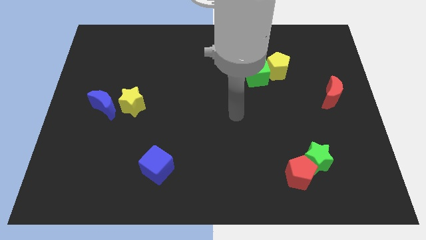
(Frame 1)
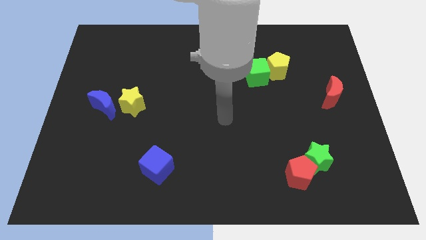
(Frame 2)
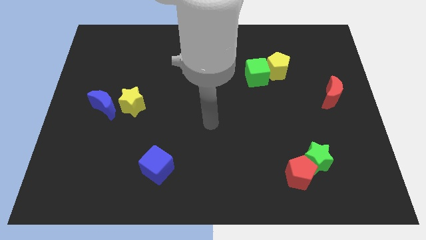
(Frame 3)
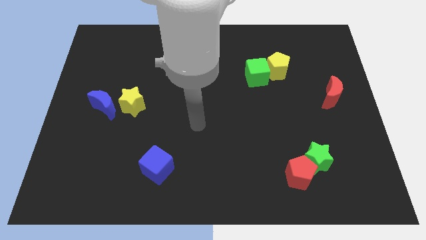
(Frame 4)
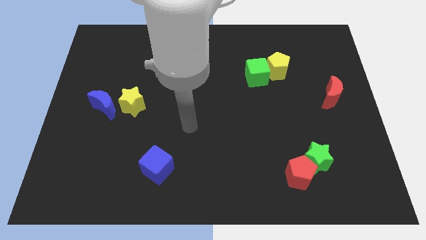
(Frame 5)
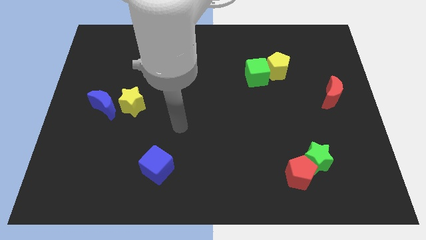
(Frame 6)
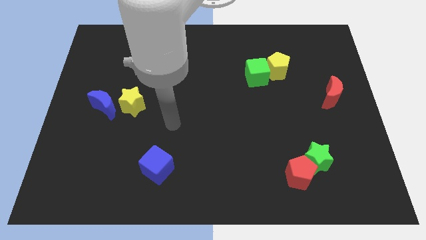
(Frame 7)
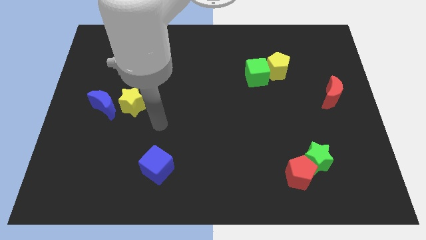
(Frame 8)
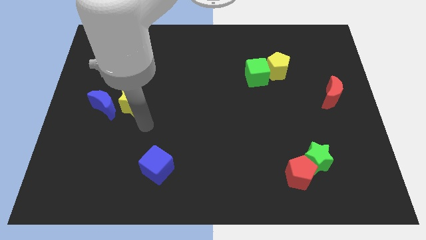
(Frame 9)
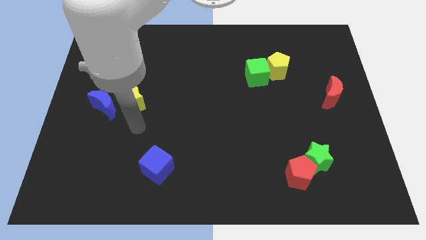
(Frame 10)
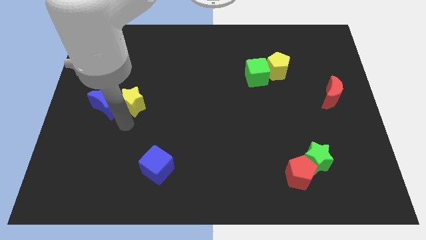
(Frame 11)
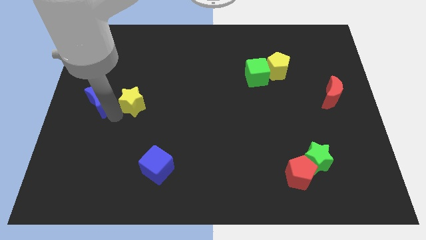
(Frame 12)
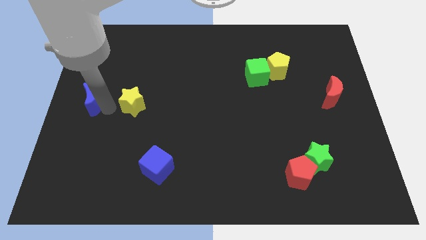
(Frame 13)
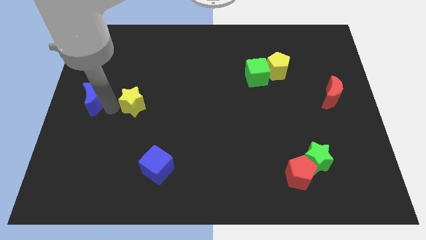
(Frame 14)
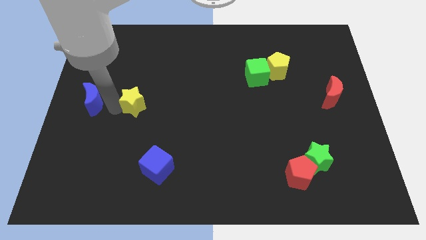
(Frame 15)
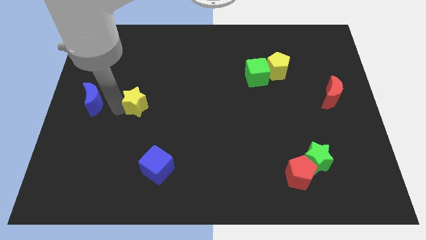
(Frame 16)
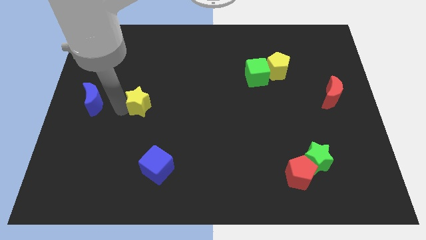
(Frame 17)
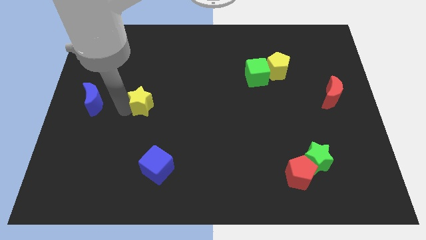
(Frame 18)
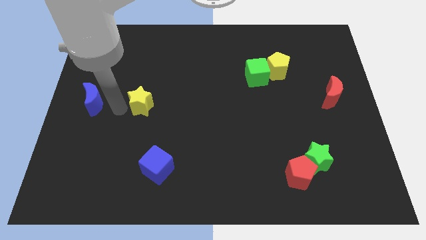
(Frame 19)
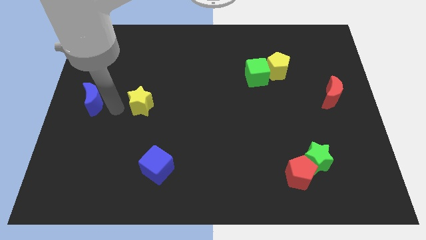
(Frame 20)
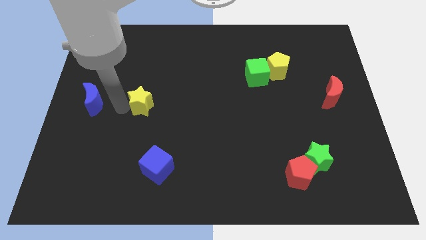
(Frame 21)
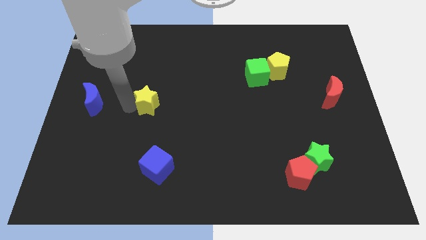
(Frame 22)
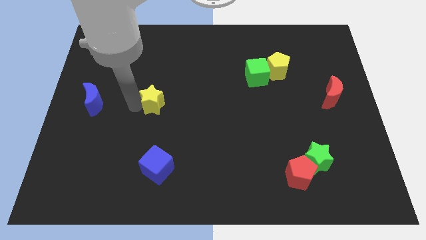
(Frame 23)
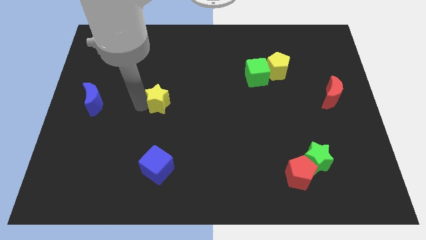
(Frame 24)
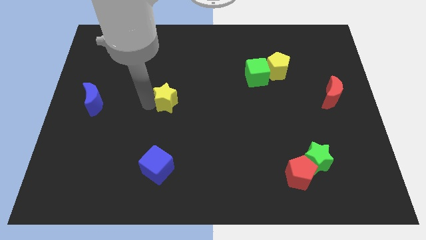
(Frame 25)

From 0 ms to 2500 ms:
move the yellow star right a bit

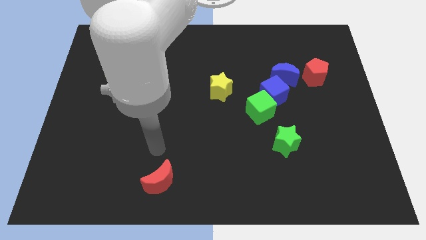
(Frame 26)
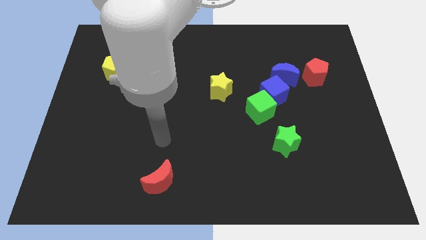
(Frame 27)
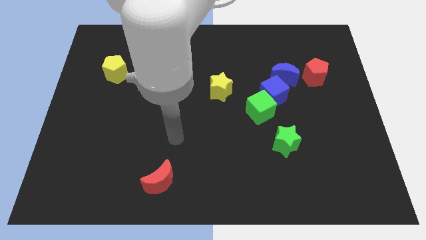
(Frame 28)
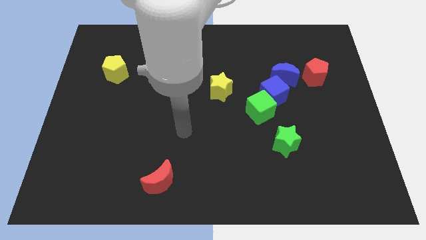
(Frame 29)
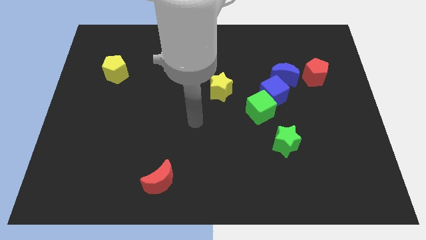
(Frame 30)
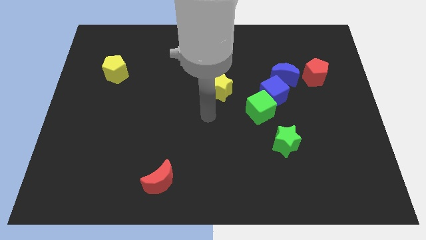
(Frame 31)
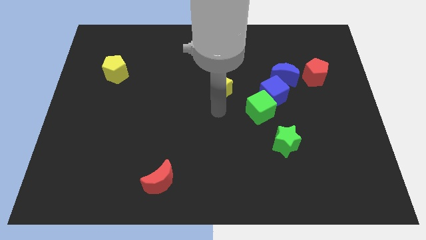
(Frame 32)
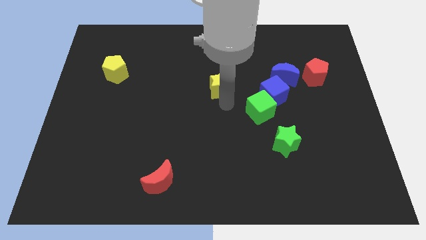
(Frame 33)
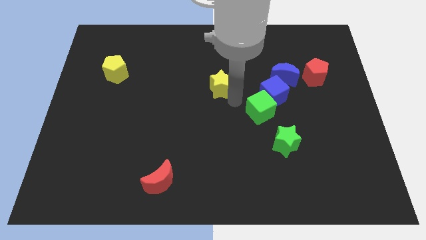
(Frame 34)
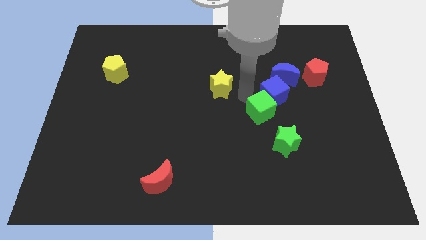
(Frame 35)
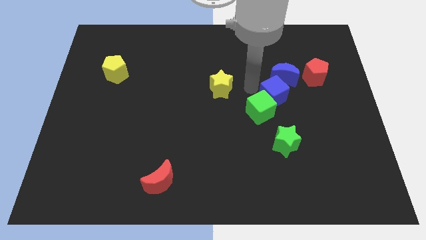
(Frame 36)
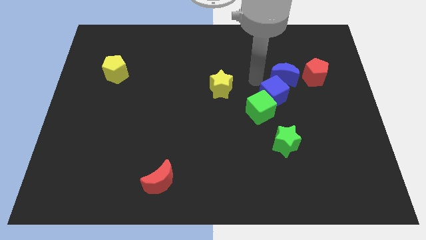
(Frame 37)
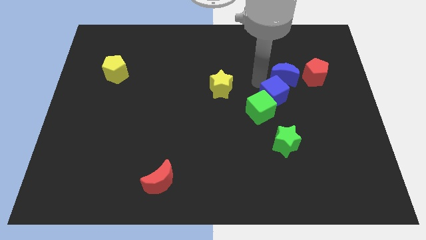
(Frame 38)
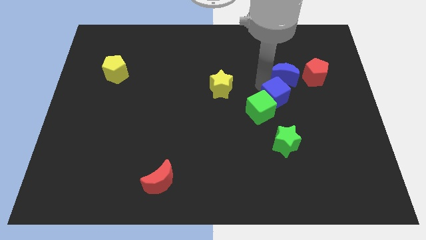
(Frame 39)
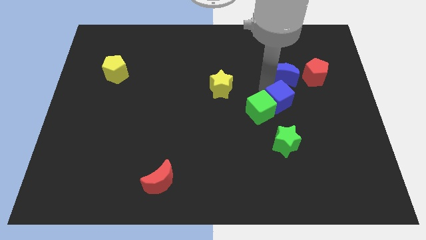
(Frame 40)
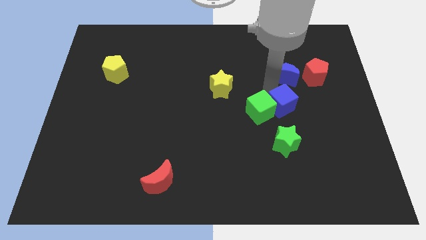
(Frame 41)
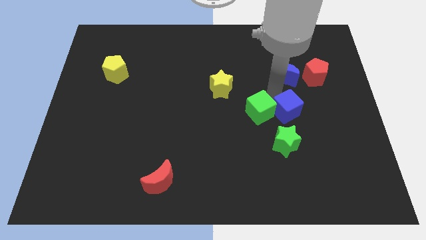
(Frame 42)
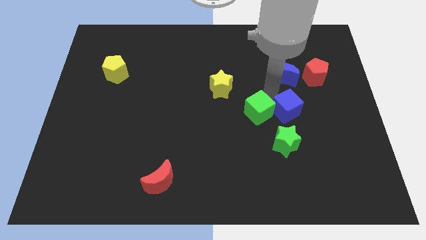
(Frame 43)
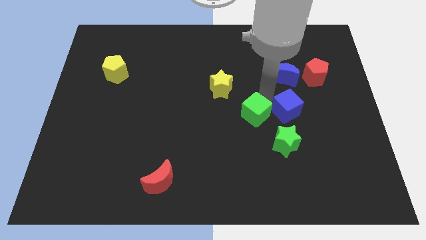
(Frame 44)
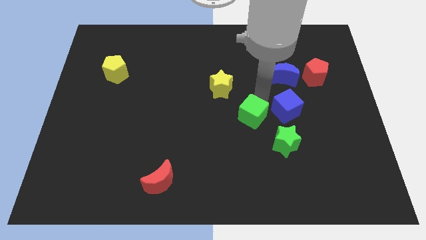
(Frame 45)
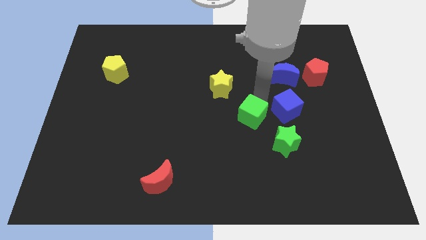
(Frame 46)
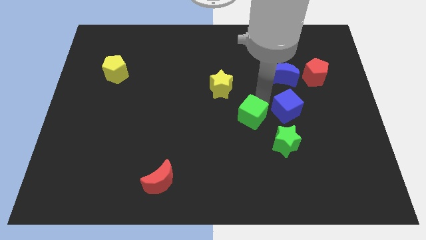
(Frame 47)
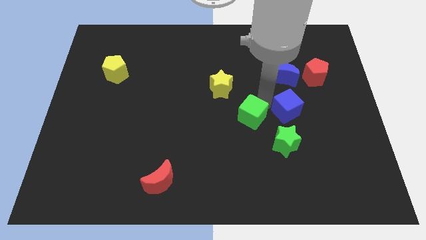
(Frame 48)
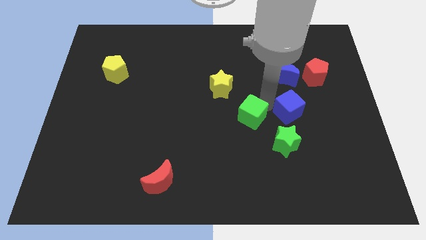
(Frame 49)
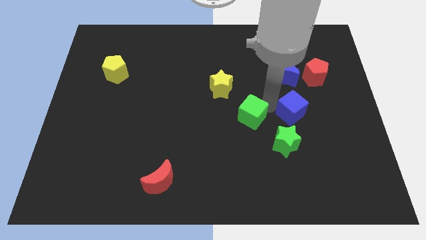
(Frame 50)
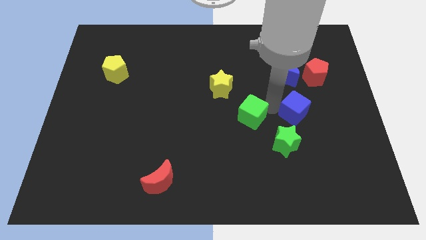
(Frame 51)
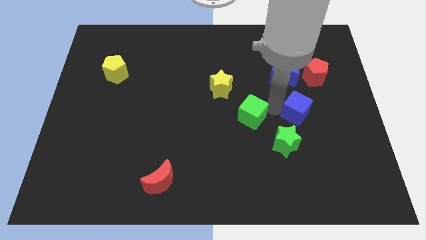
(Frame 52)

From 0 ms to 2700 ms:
slightly push the blue cube down and to the right diagonally

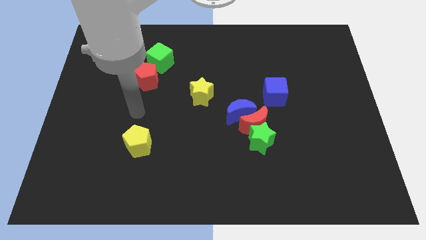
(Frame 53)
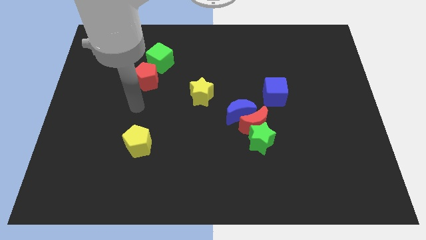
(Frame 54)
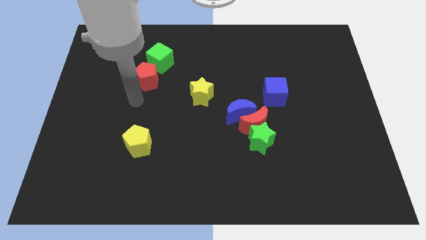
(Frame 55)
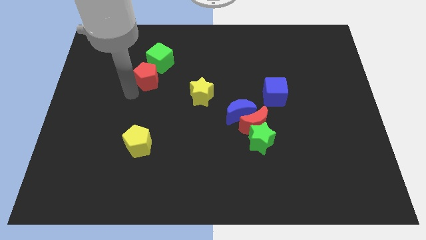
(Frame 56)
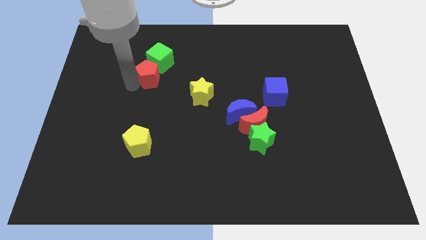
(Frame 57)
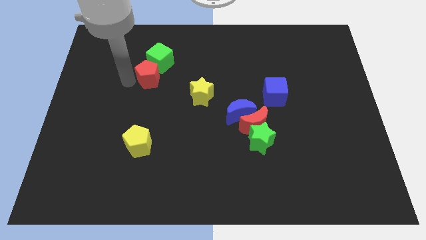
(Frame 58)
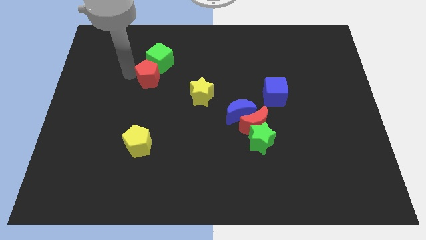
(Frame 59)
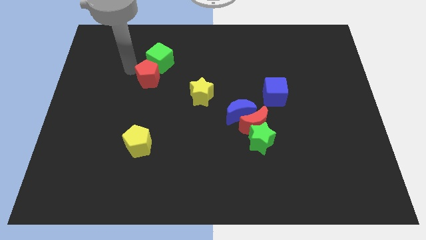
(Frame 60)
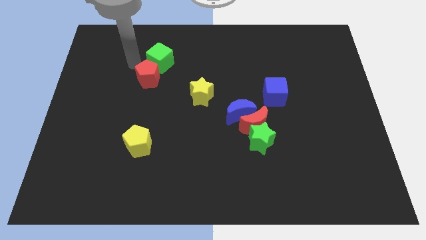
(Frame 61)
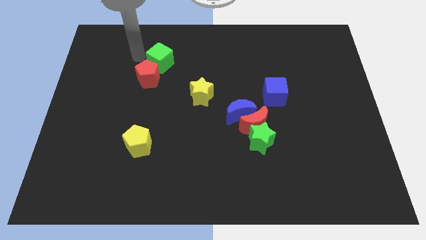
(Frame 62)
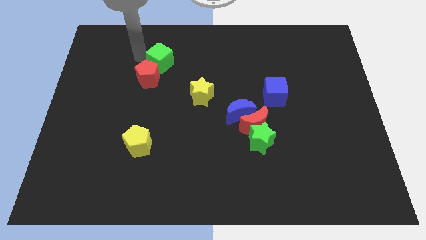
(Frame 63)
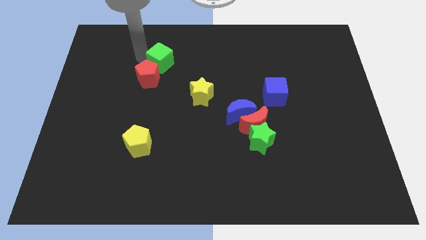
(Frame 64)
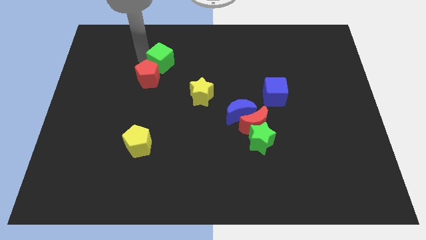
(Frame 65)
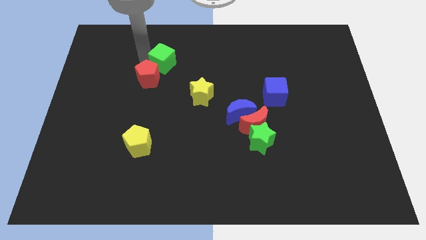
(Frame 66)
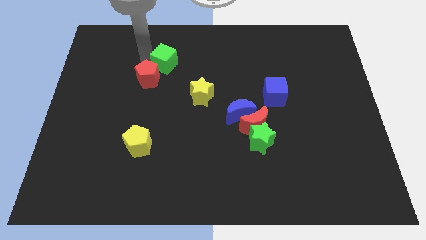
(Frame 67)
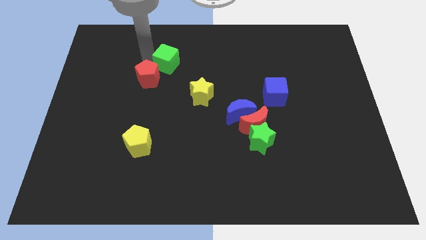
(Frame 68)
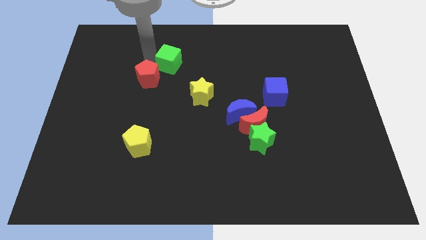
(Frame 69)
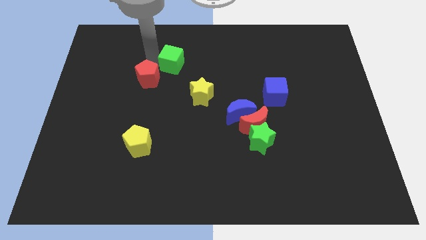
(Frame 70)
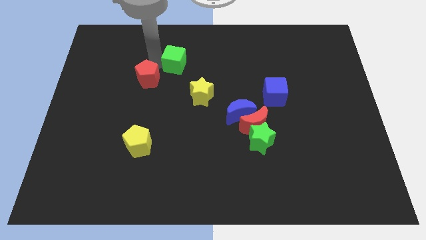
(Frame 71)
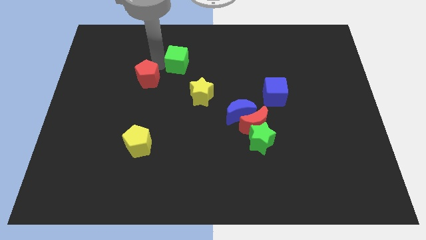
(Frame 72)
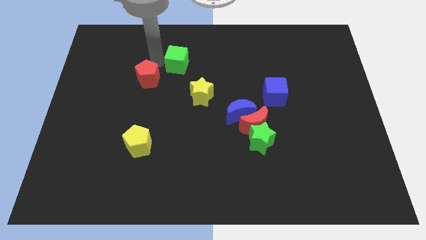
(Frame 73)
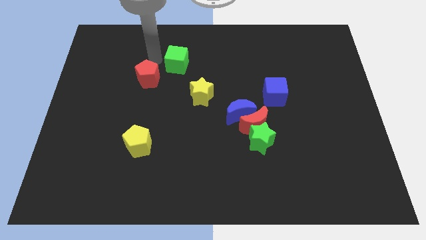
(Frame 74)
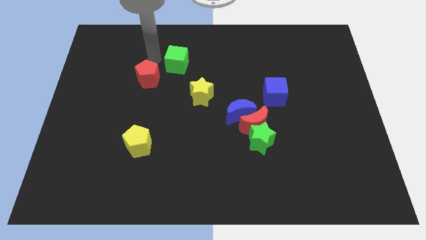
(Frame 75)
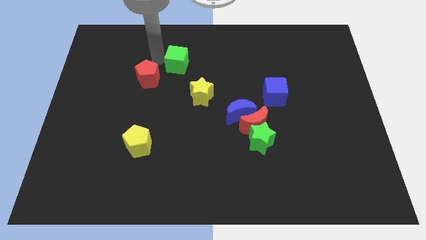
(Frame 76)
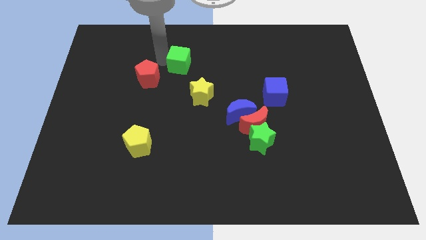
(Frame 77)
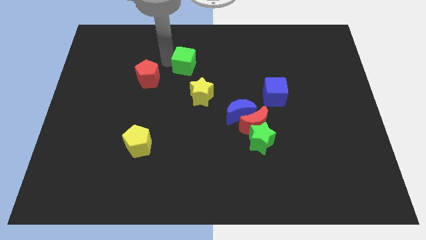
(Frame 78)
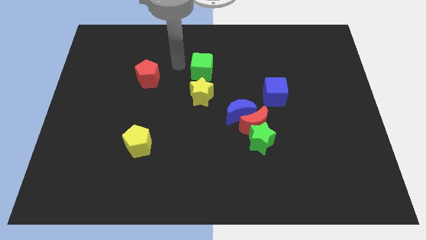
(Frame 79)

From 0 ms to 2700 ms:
slightly slide the green cube right

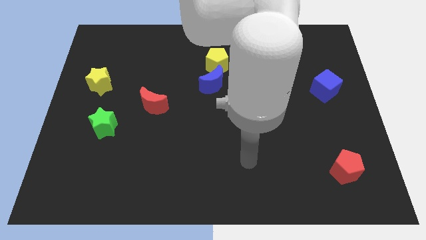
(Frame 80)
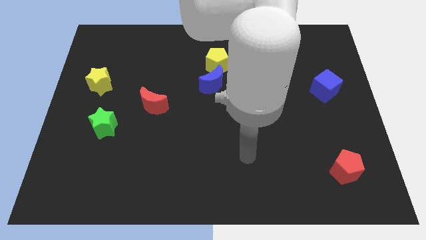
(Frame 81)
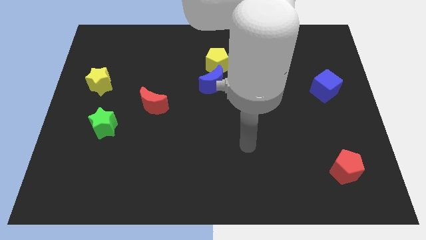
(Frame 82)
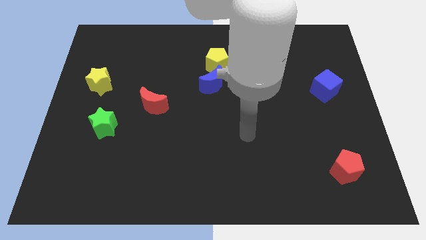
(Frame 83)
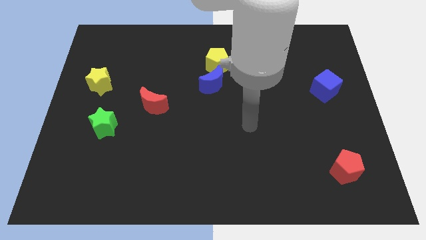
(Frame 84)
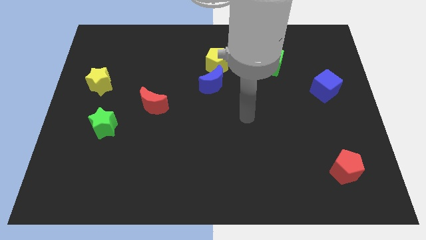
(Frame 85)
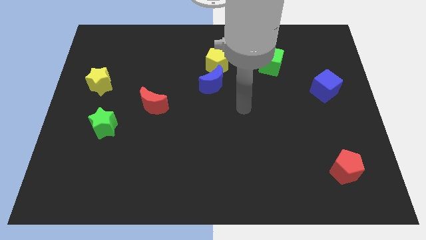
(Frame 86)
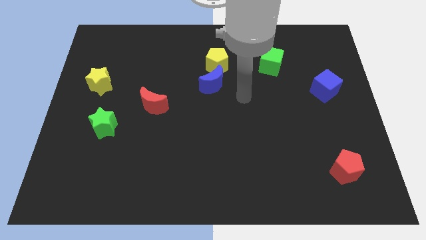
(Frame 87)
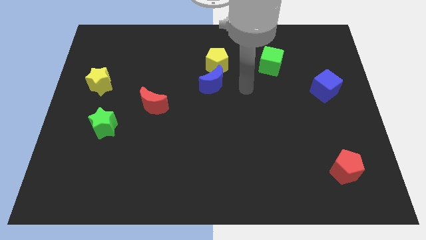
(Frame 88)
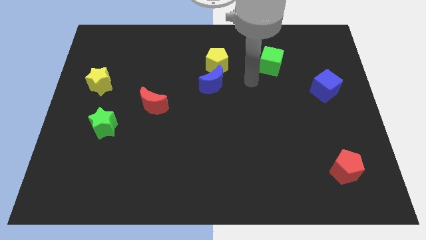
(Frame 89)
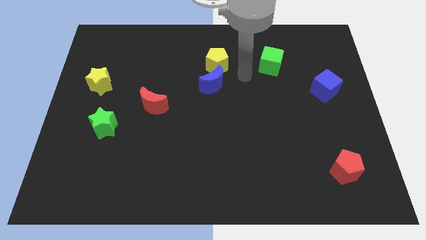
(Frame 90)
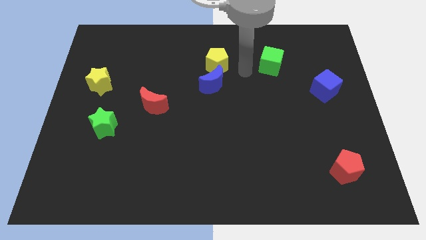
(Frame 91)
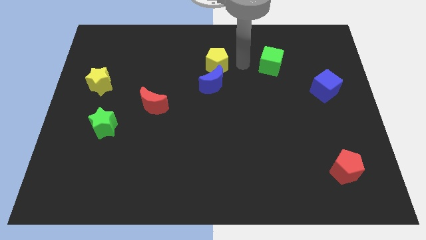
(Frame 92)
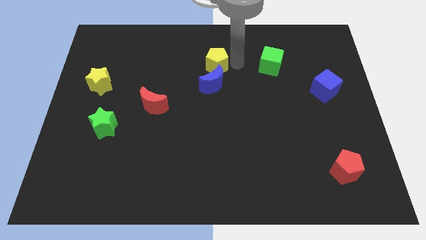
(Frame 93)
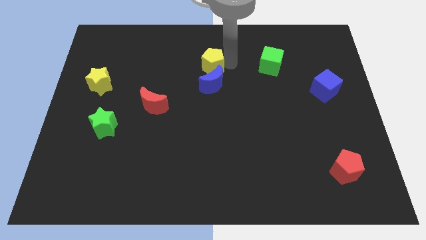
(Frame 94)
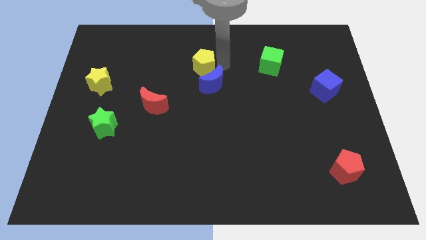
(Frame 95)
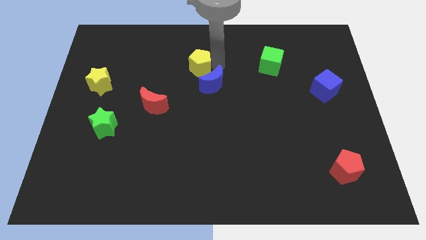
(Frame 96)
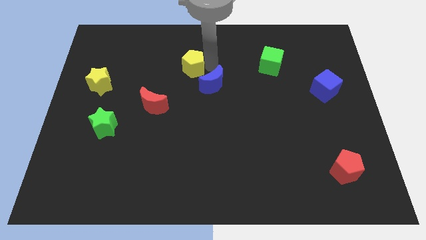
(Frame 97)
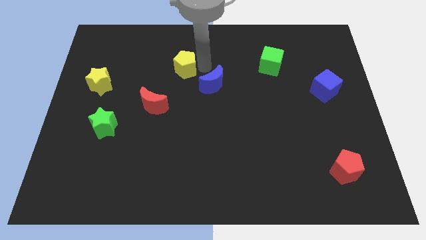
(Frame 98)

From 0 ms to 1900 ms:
push the yellow pentagon to the left somewhat
